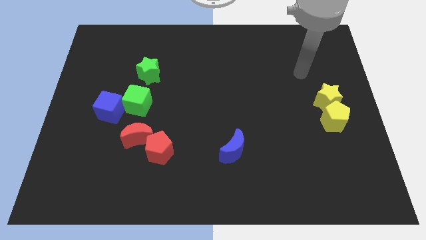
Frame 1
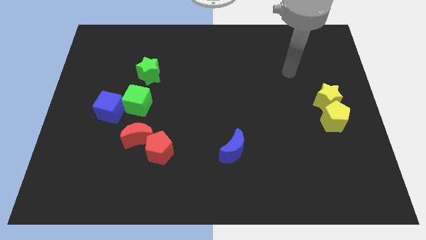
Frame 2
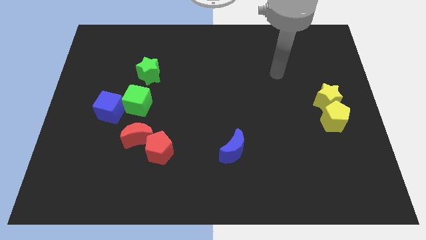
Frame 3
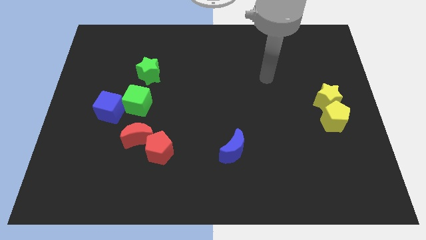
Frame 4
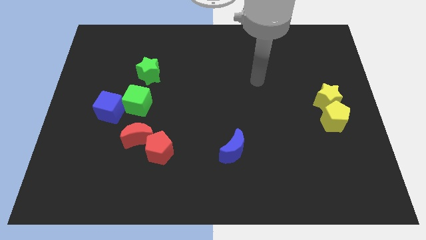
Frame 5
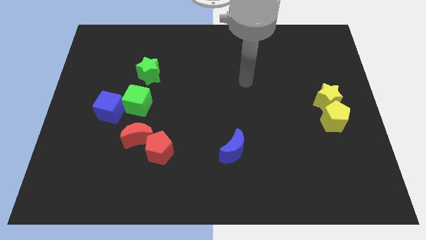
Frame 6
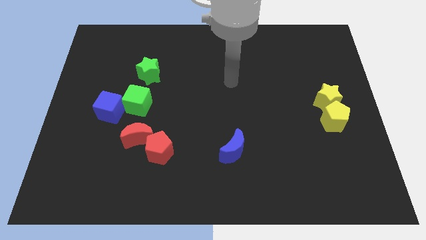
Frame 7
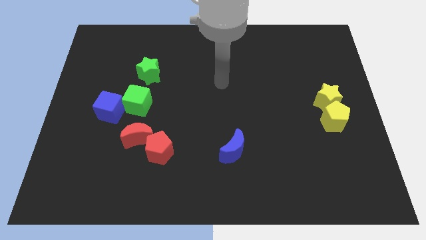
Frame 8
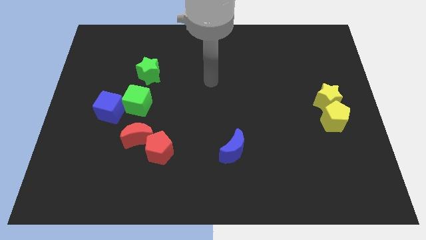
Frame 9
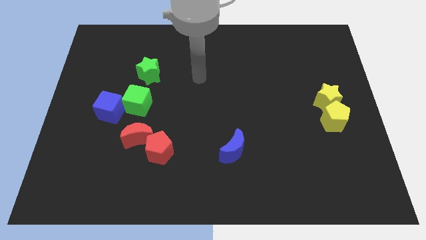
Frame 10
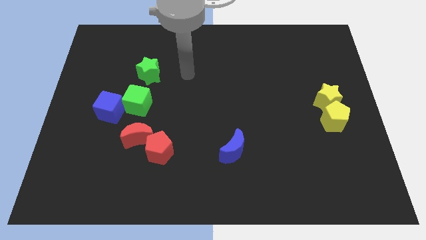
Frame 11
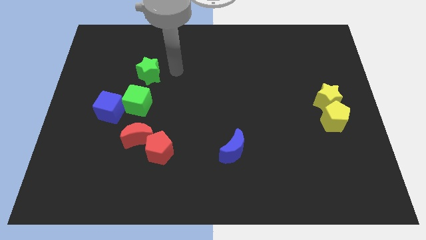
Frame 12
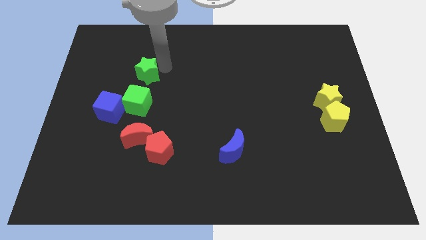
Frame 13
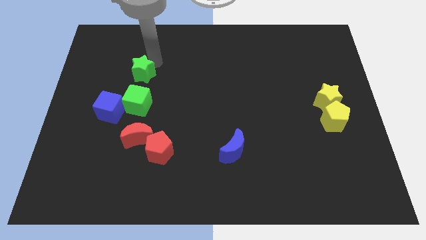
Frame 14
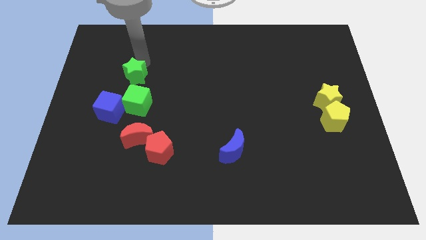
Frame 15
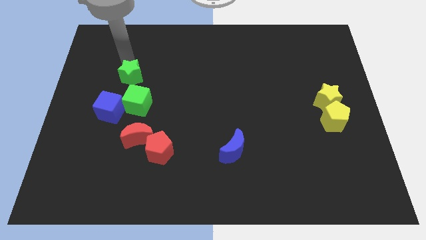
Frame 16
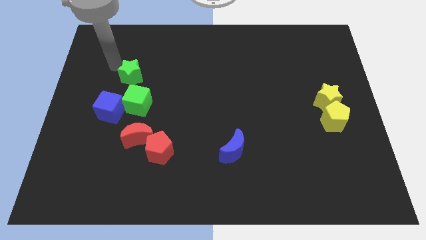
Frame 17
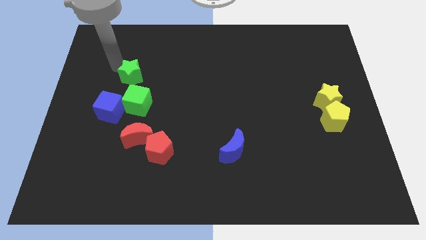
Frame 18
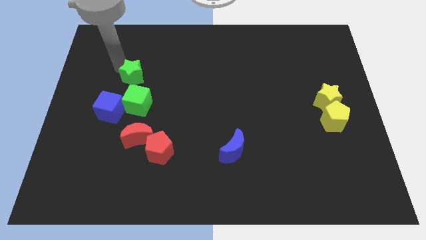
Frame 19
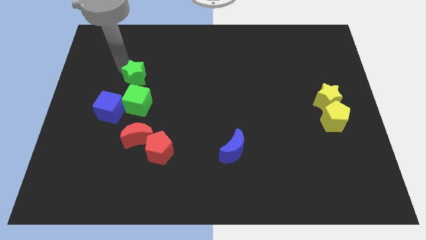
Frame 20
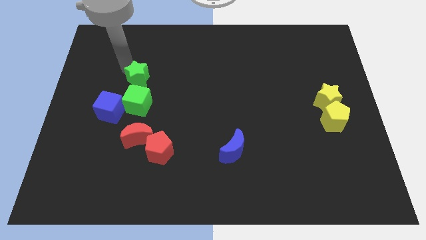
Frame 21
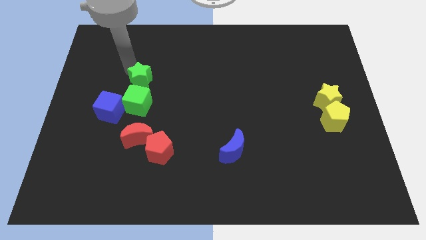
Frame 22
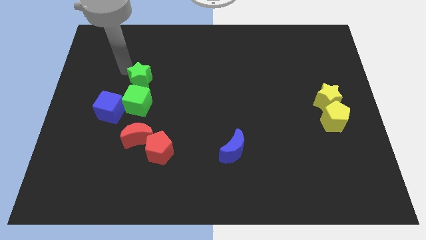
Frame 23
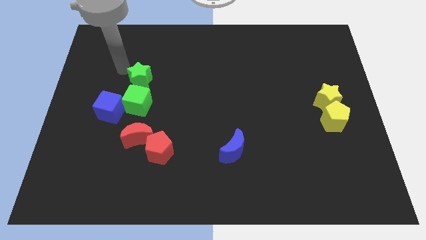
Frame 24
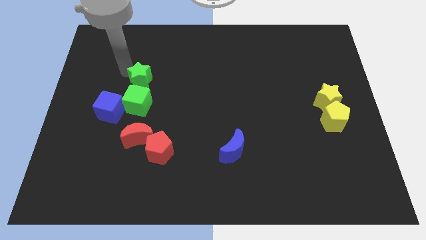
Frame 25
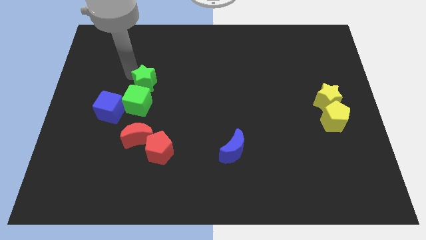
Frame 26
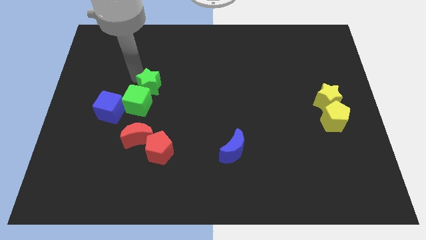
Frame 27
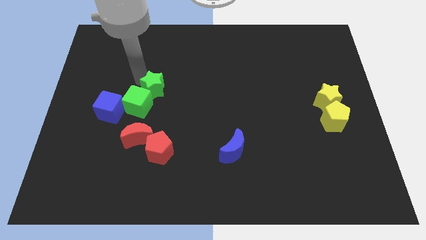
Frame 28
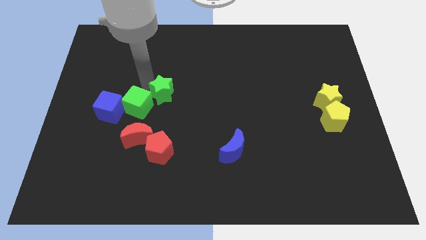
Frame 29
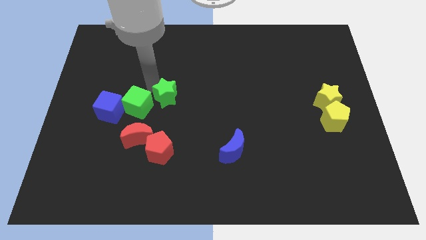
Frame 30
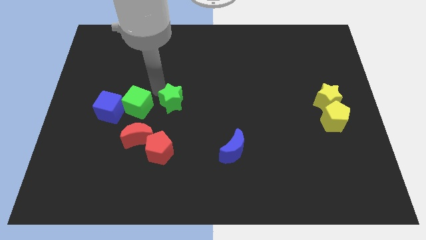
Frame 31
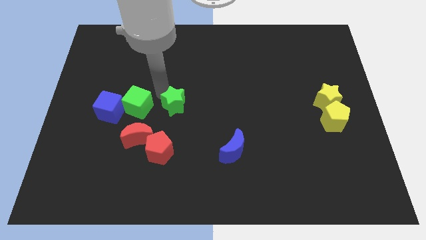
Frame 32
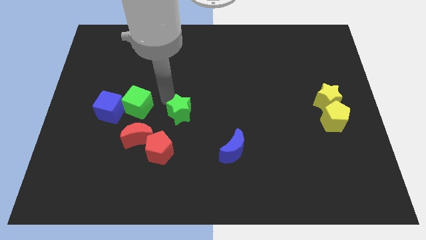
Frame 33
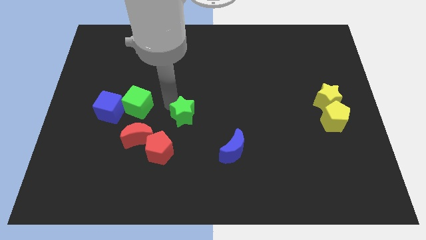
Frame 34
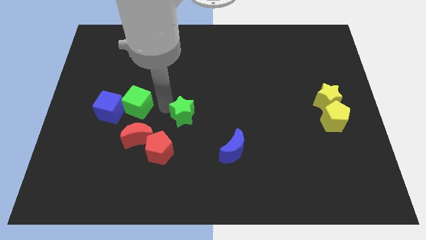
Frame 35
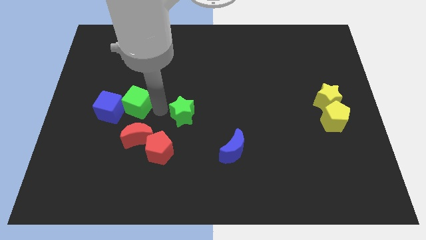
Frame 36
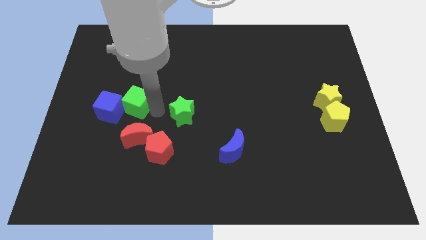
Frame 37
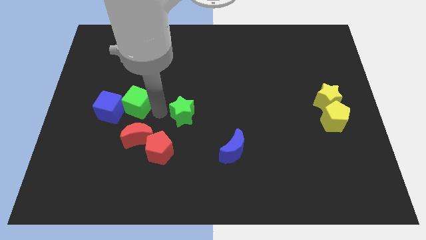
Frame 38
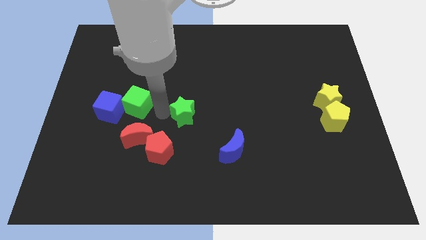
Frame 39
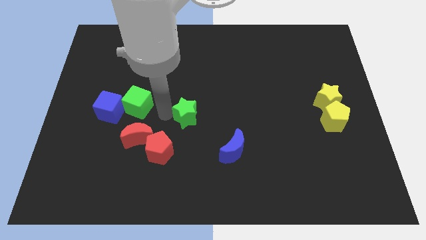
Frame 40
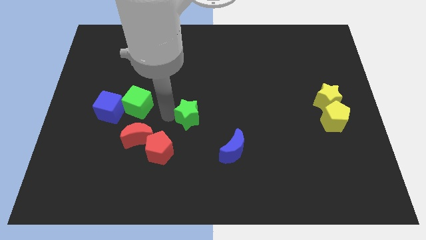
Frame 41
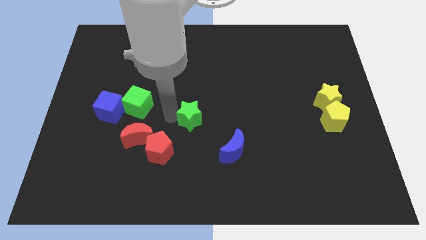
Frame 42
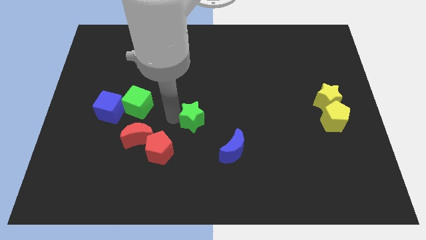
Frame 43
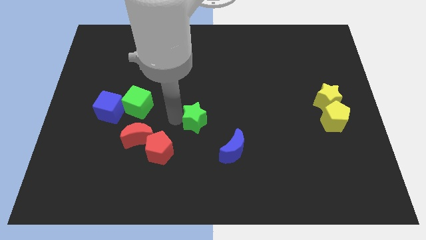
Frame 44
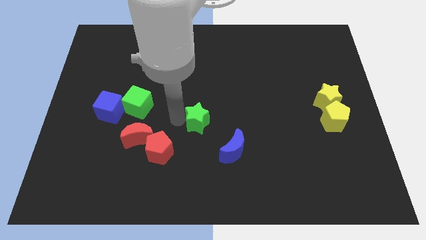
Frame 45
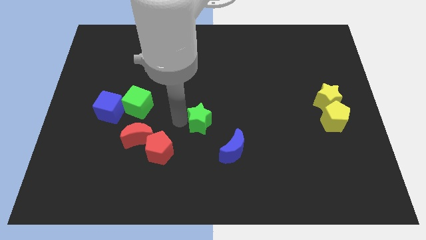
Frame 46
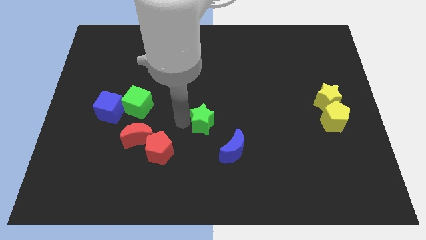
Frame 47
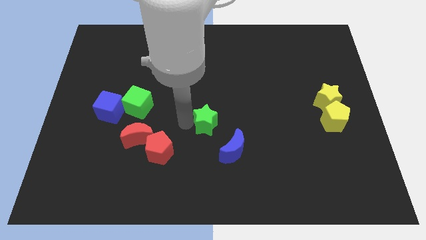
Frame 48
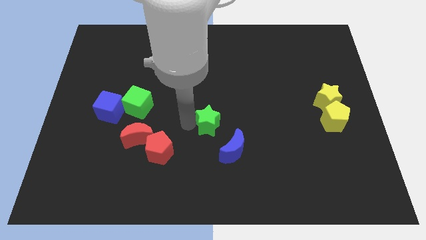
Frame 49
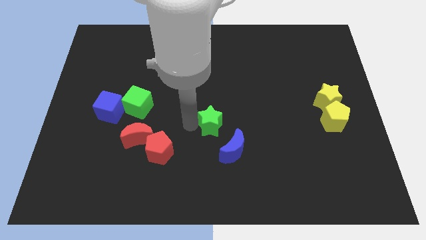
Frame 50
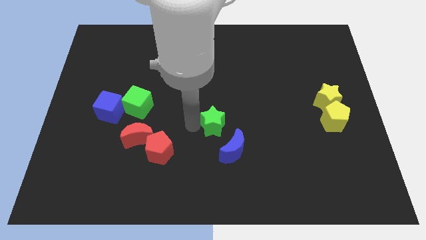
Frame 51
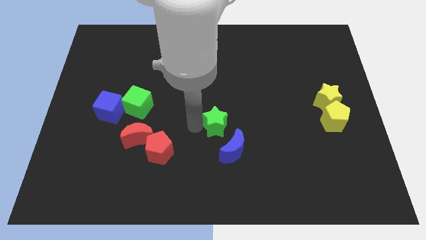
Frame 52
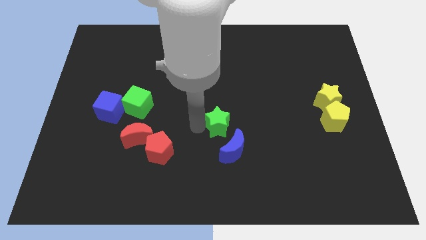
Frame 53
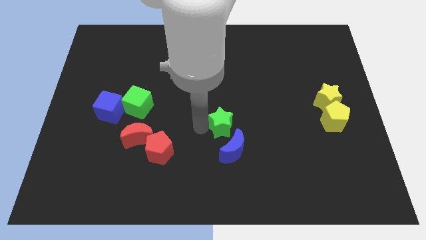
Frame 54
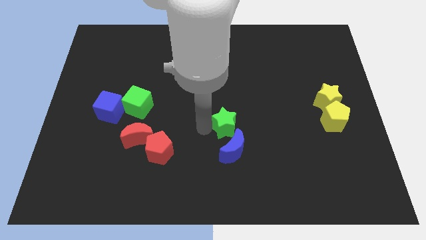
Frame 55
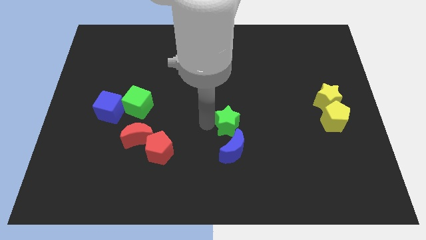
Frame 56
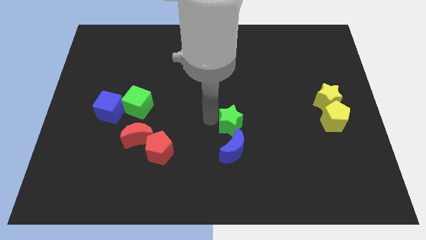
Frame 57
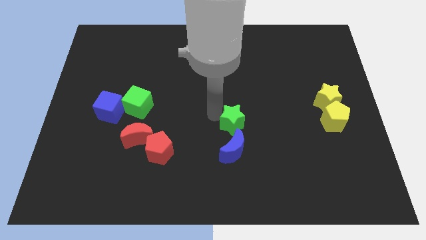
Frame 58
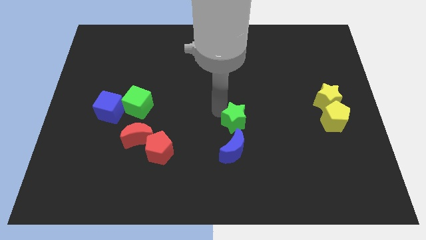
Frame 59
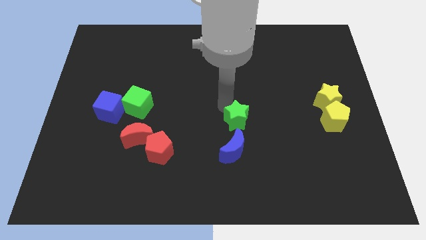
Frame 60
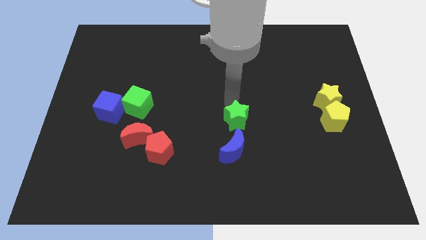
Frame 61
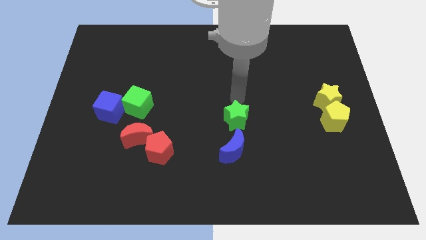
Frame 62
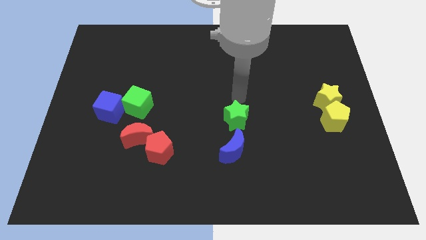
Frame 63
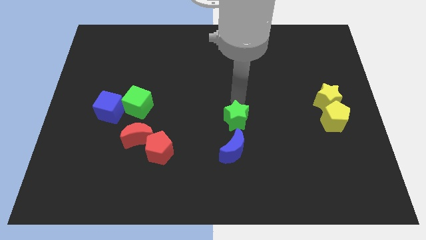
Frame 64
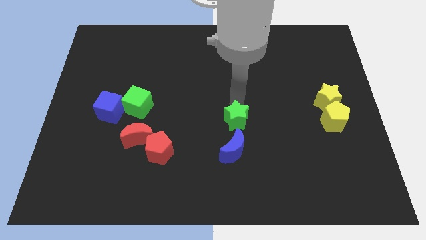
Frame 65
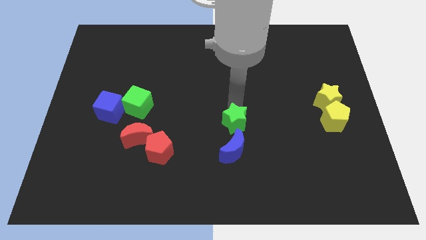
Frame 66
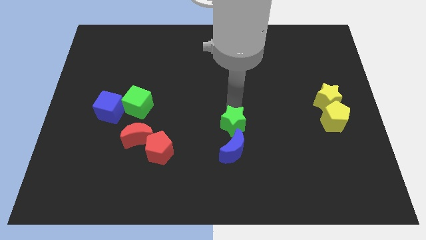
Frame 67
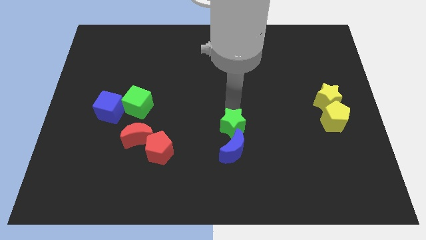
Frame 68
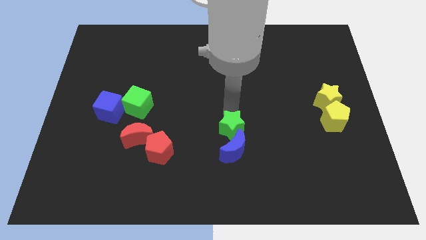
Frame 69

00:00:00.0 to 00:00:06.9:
put the green star next to the blue moon
